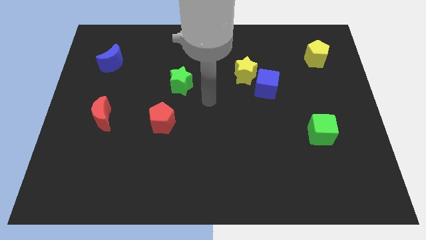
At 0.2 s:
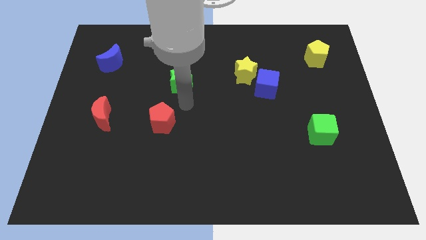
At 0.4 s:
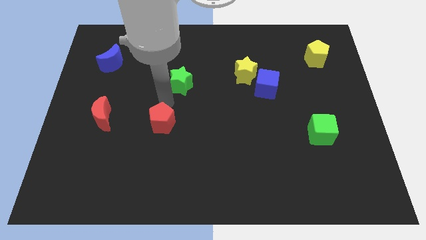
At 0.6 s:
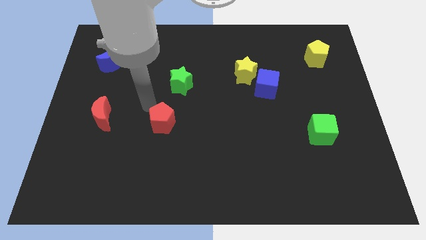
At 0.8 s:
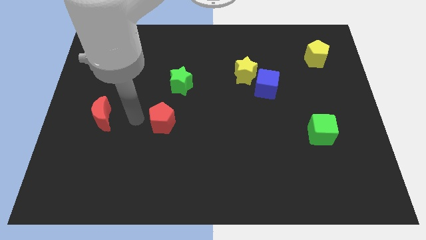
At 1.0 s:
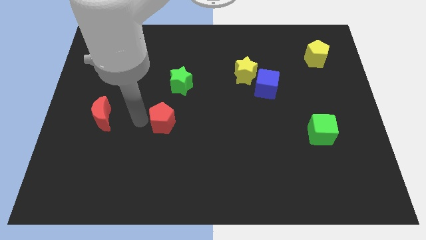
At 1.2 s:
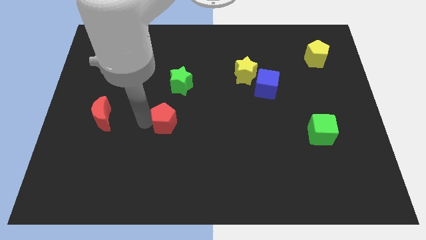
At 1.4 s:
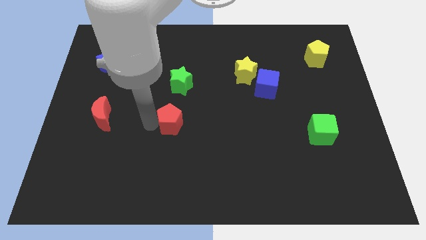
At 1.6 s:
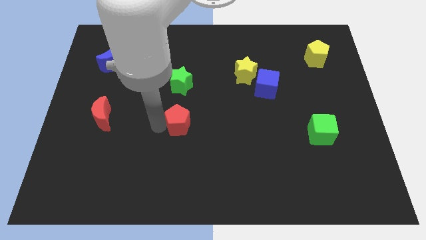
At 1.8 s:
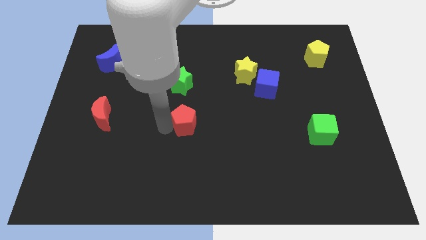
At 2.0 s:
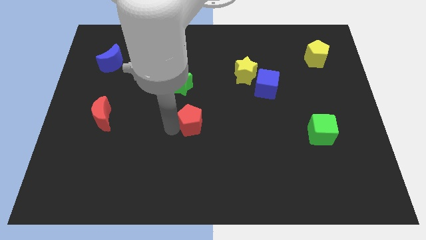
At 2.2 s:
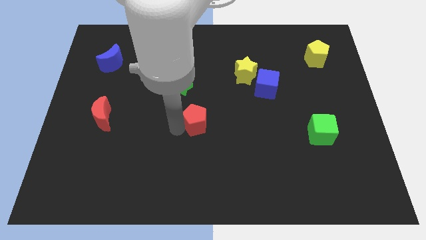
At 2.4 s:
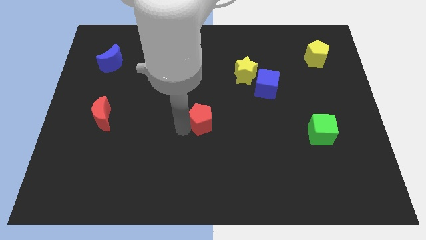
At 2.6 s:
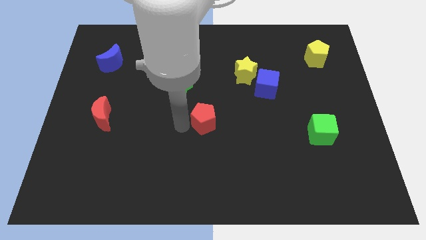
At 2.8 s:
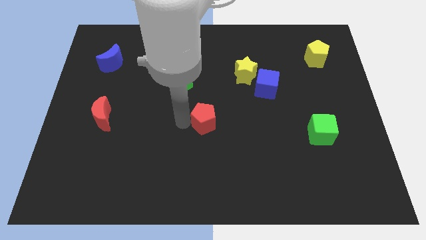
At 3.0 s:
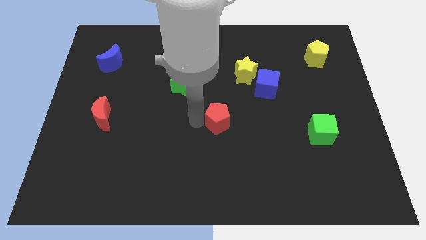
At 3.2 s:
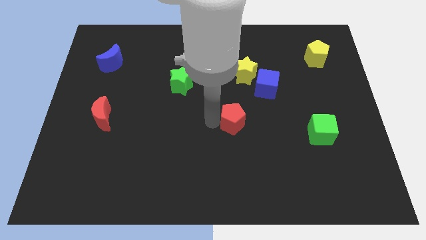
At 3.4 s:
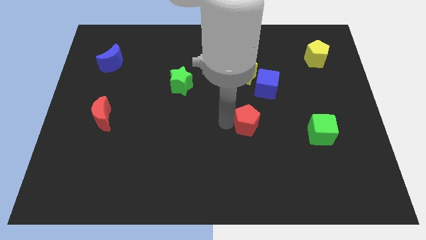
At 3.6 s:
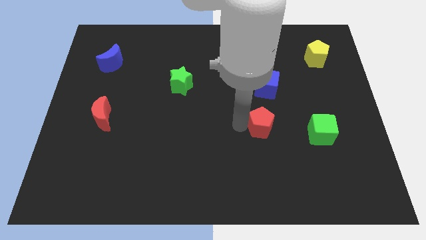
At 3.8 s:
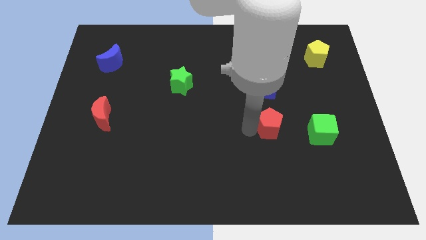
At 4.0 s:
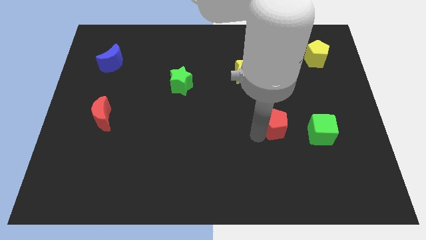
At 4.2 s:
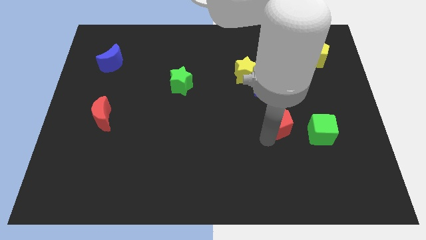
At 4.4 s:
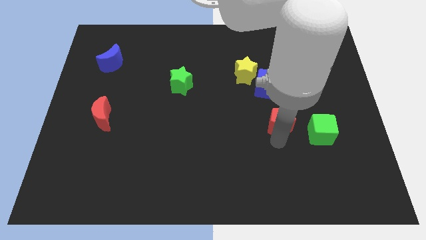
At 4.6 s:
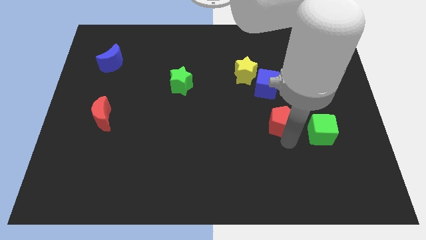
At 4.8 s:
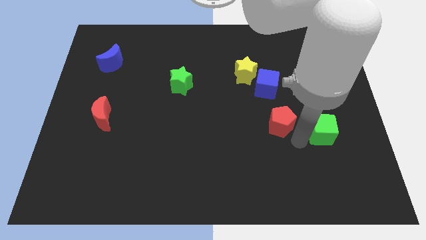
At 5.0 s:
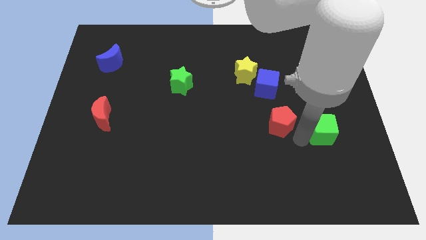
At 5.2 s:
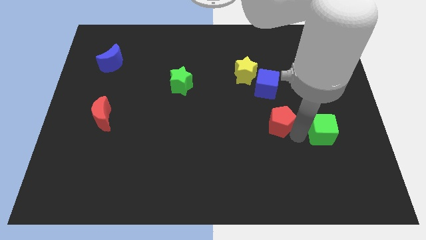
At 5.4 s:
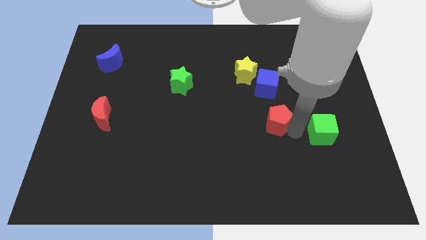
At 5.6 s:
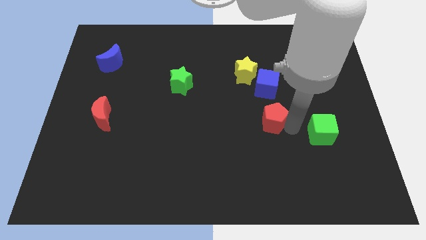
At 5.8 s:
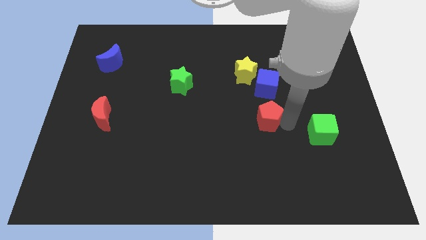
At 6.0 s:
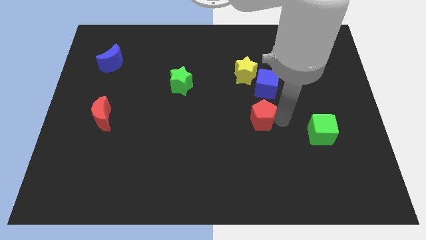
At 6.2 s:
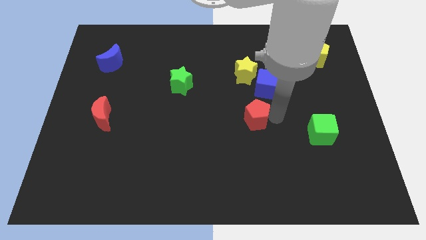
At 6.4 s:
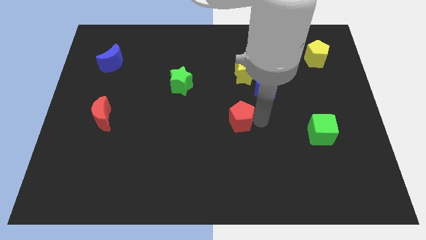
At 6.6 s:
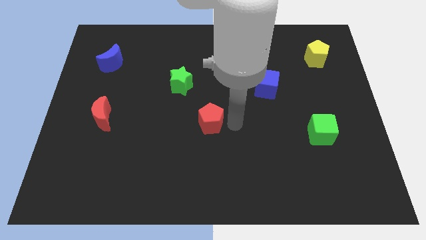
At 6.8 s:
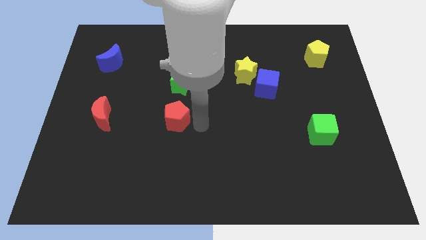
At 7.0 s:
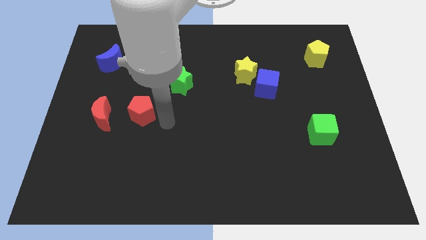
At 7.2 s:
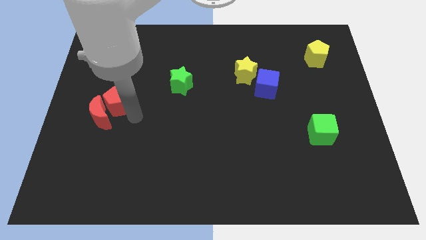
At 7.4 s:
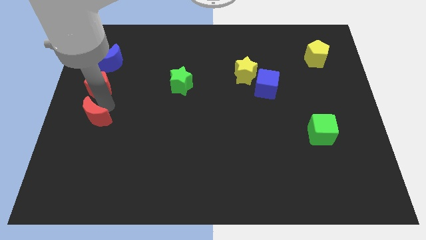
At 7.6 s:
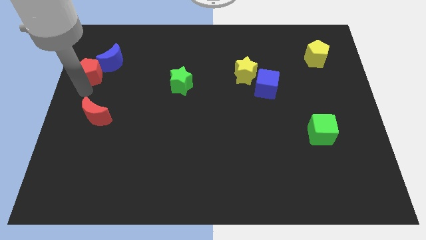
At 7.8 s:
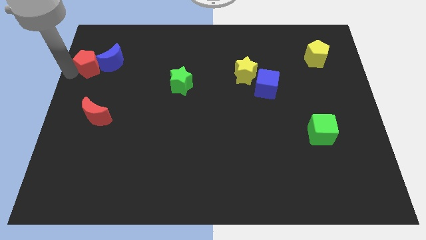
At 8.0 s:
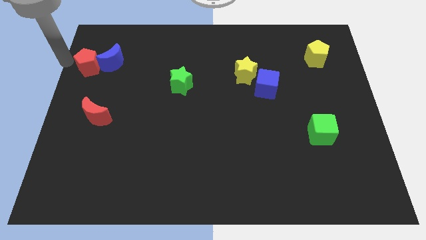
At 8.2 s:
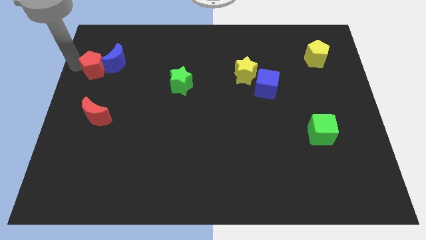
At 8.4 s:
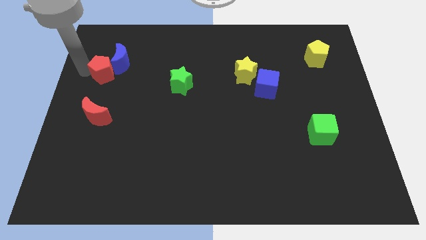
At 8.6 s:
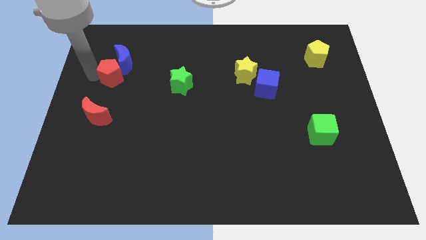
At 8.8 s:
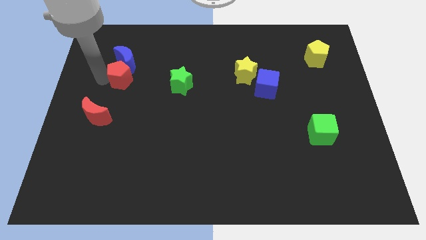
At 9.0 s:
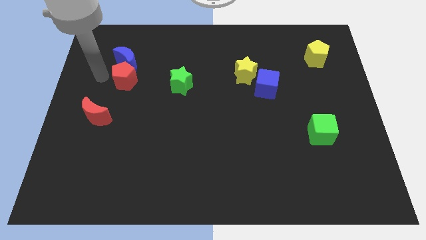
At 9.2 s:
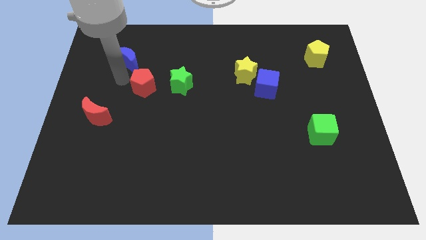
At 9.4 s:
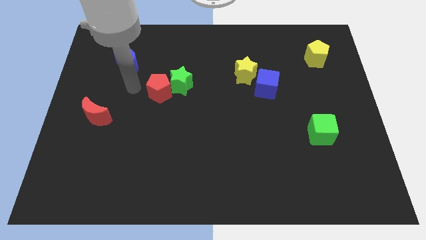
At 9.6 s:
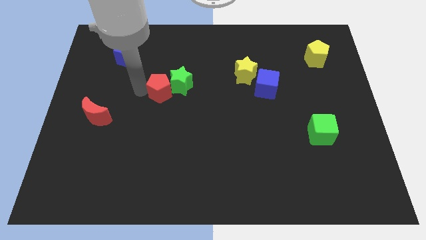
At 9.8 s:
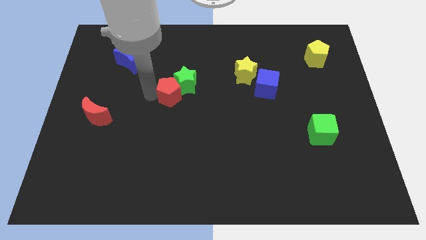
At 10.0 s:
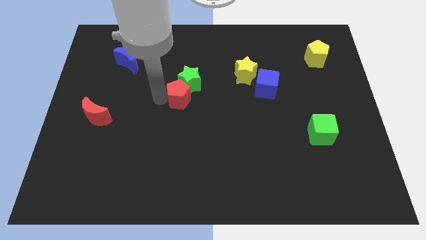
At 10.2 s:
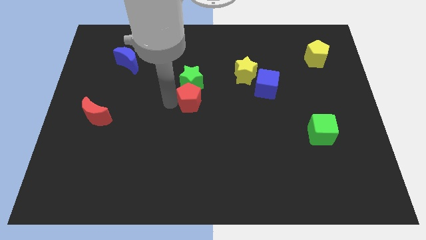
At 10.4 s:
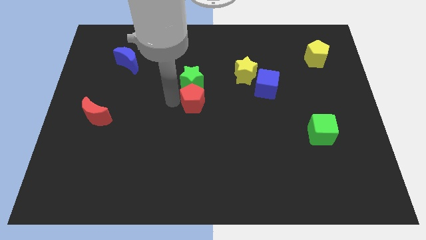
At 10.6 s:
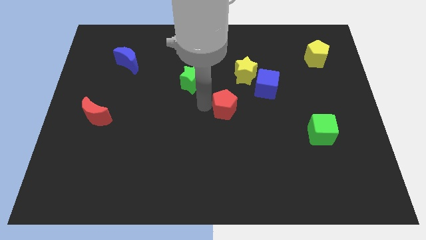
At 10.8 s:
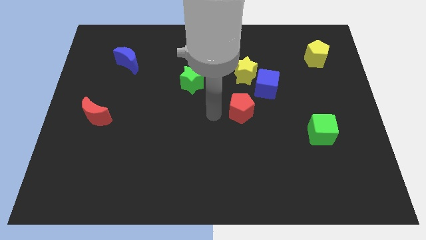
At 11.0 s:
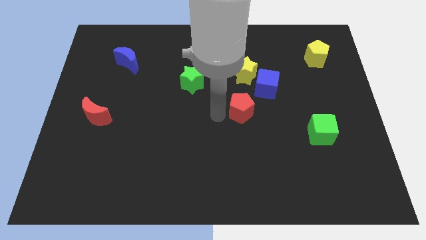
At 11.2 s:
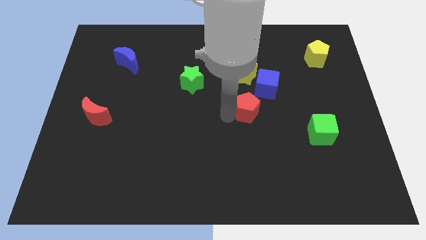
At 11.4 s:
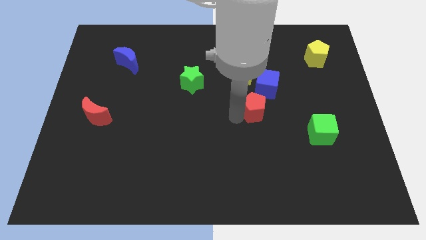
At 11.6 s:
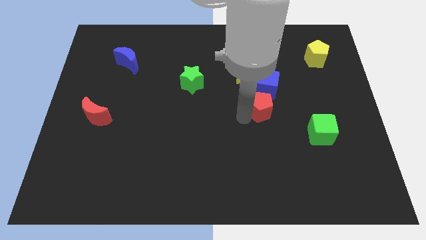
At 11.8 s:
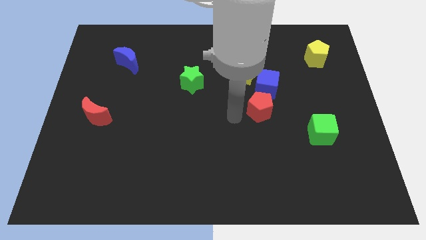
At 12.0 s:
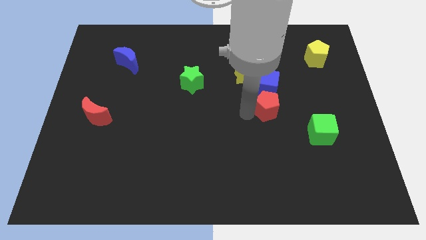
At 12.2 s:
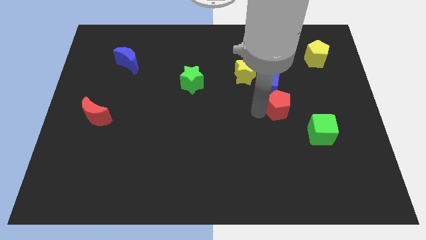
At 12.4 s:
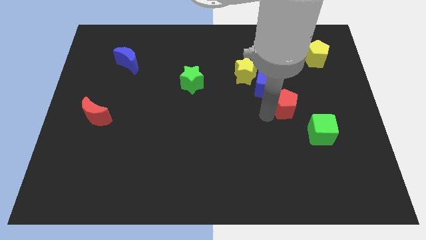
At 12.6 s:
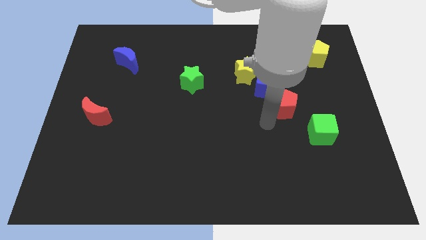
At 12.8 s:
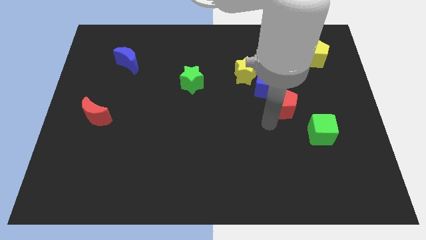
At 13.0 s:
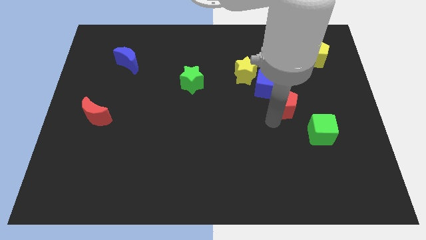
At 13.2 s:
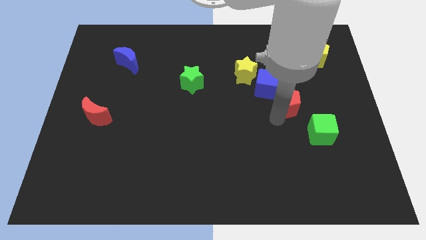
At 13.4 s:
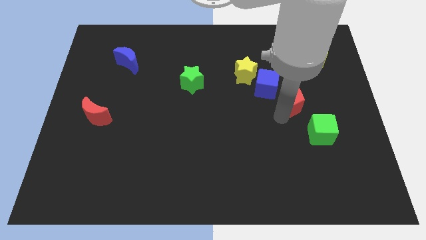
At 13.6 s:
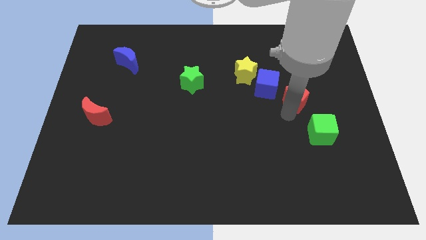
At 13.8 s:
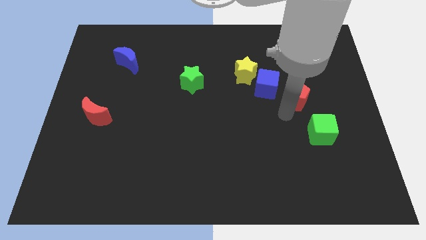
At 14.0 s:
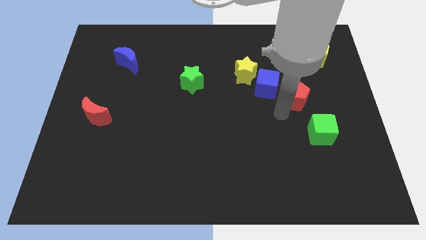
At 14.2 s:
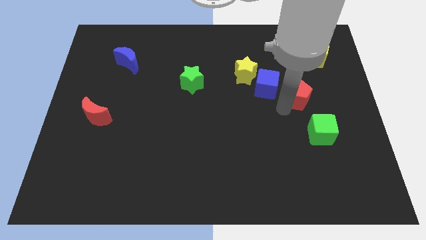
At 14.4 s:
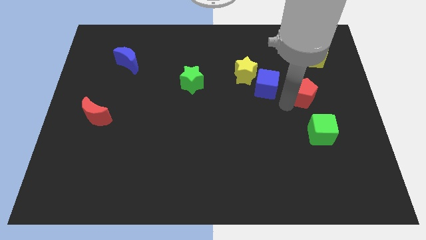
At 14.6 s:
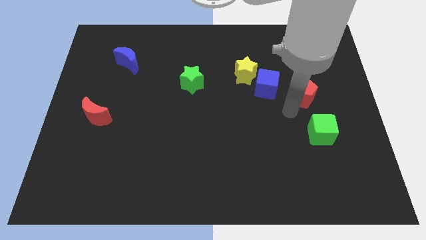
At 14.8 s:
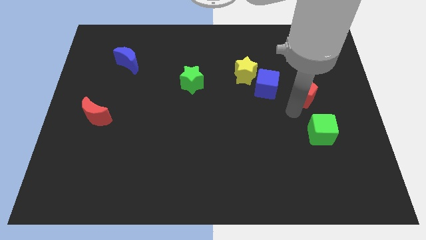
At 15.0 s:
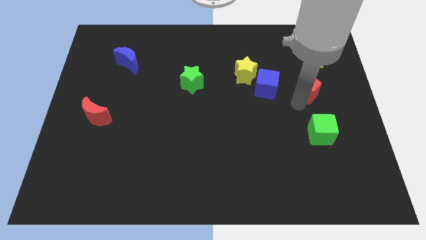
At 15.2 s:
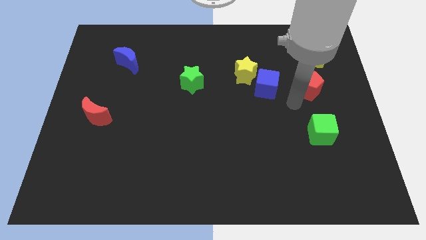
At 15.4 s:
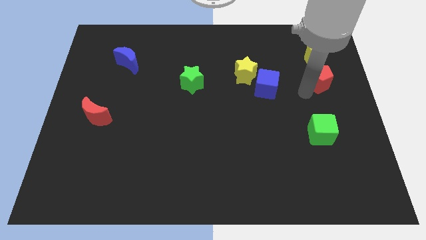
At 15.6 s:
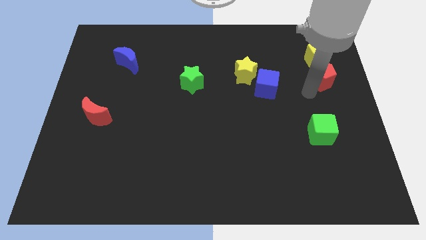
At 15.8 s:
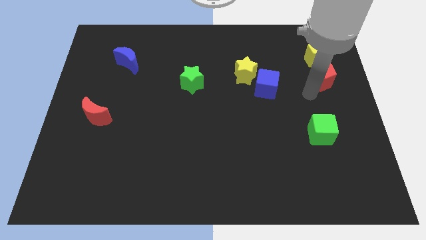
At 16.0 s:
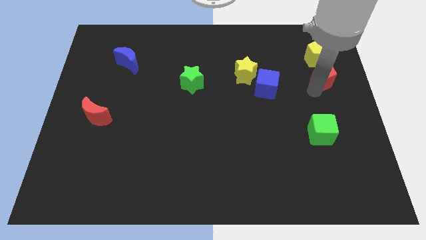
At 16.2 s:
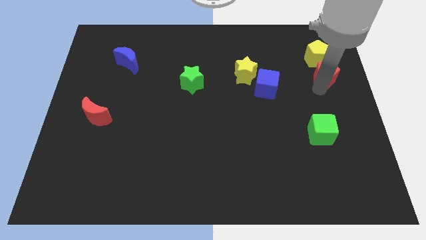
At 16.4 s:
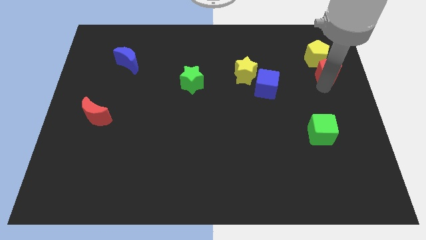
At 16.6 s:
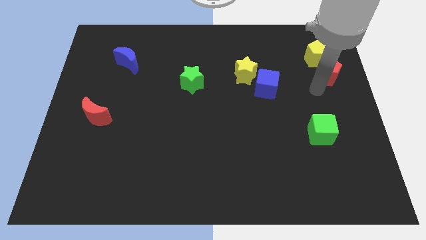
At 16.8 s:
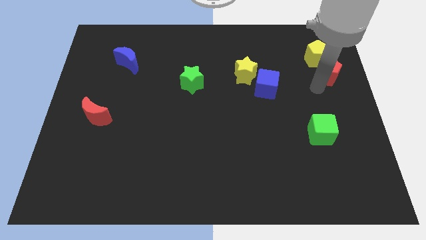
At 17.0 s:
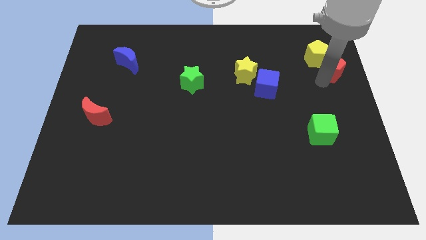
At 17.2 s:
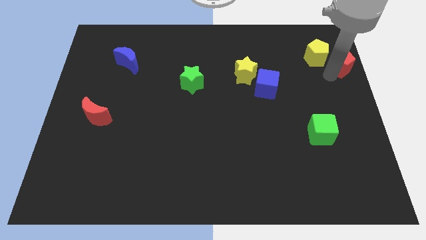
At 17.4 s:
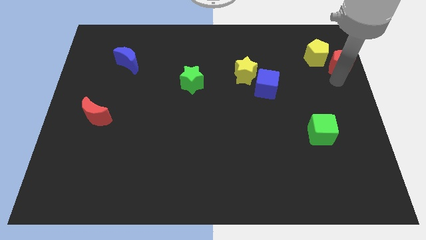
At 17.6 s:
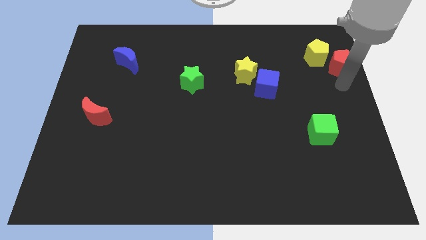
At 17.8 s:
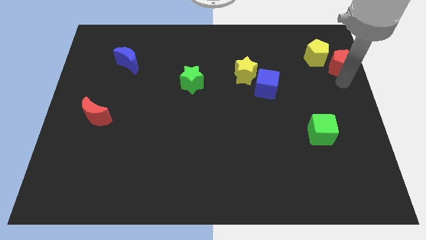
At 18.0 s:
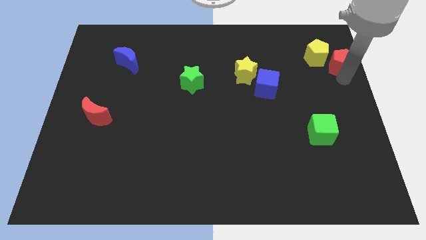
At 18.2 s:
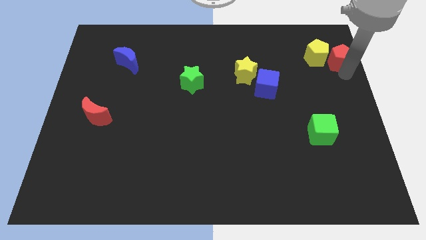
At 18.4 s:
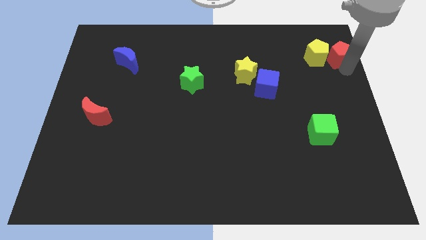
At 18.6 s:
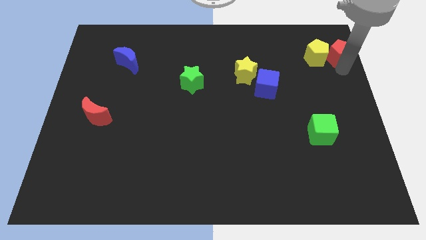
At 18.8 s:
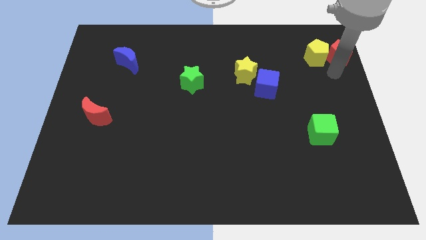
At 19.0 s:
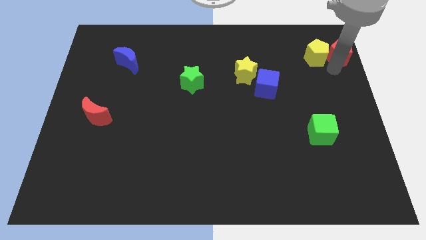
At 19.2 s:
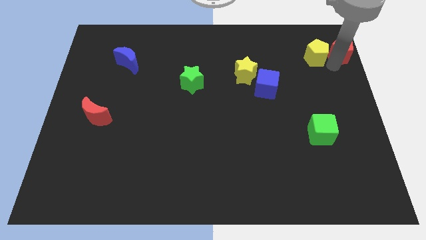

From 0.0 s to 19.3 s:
put the red pentagon to the top right corner
